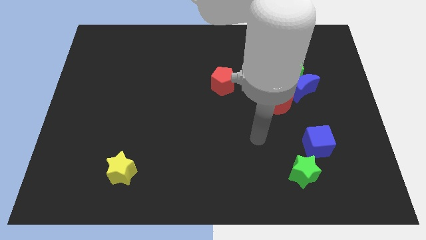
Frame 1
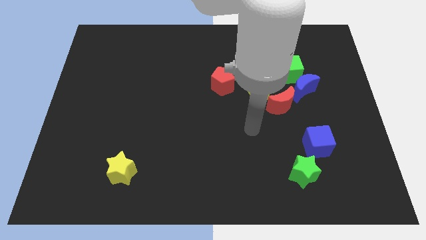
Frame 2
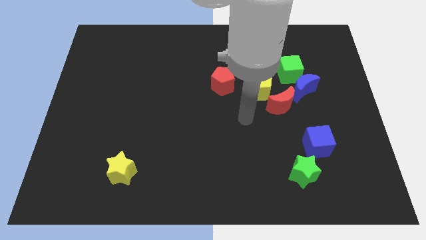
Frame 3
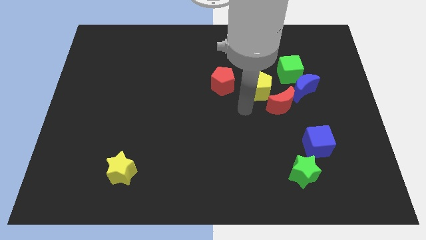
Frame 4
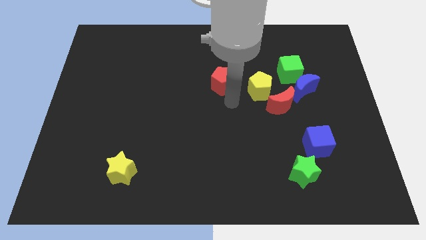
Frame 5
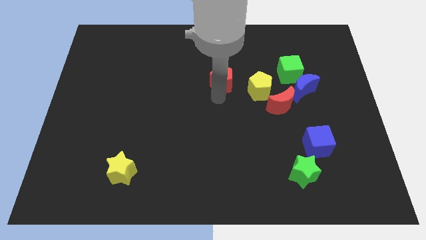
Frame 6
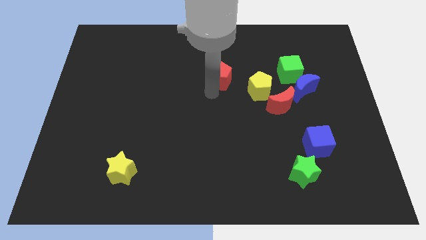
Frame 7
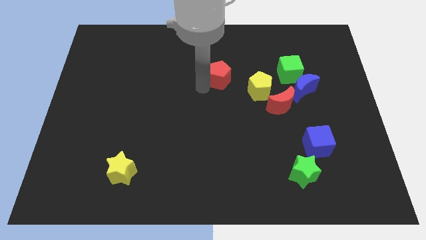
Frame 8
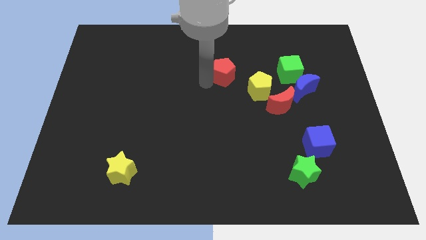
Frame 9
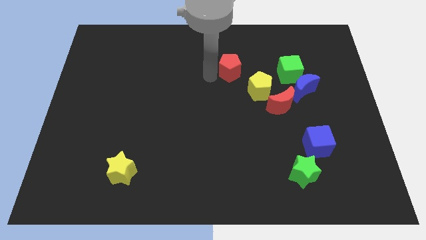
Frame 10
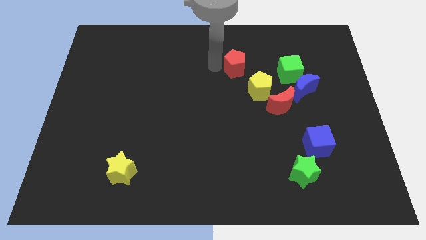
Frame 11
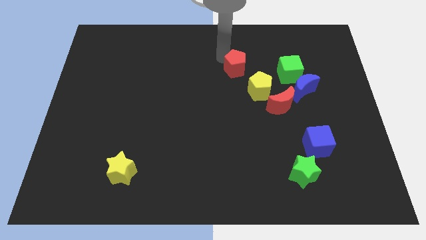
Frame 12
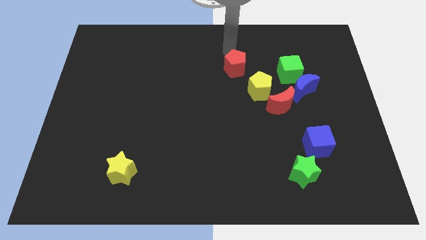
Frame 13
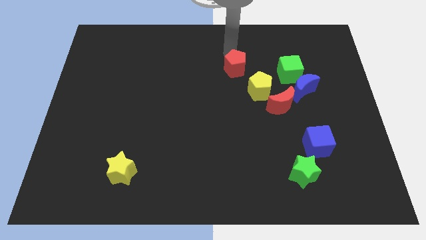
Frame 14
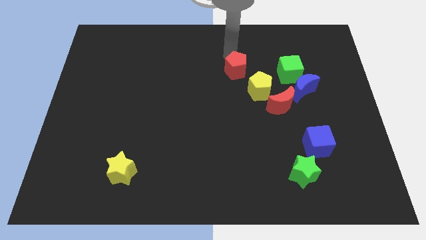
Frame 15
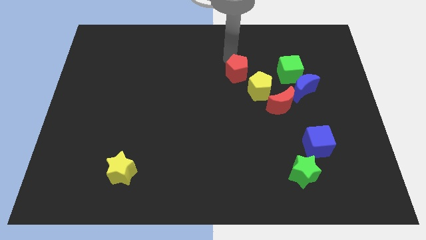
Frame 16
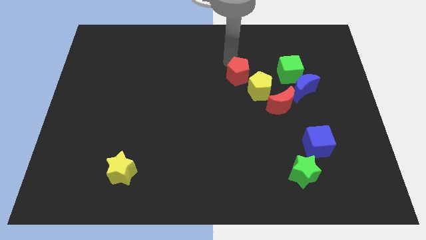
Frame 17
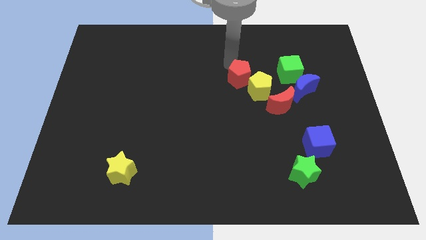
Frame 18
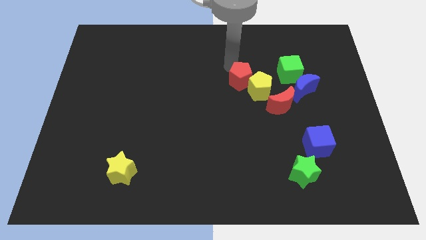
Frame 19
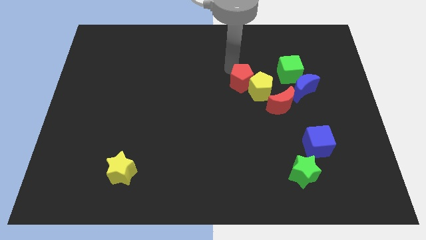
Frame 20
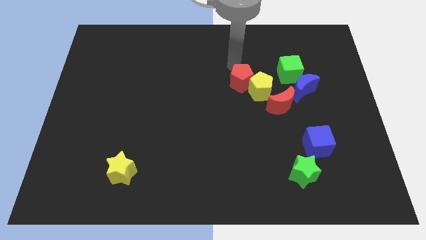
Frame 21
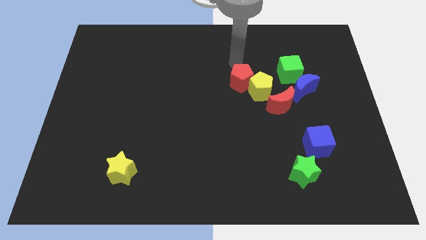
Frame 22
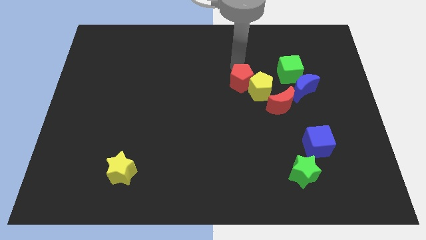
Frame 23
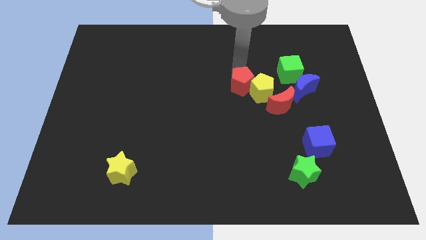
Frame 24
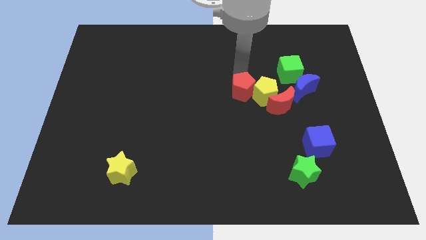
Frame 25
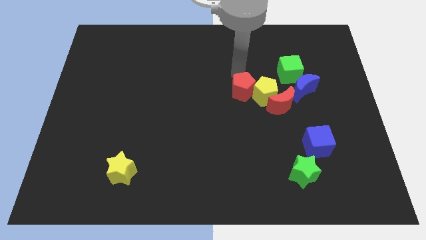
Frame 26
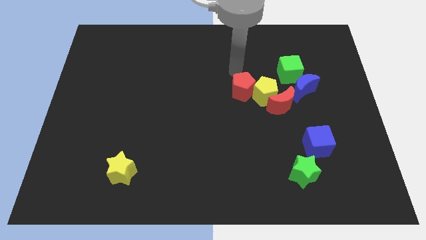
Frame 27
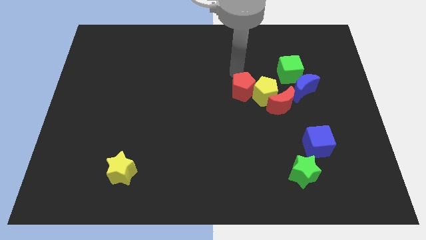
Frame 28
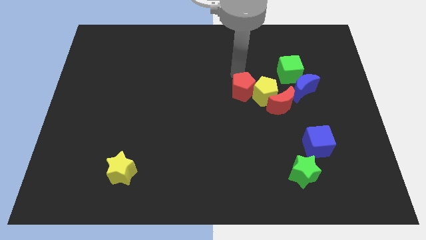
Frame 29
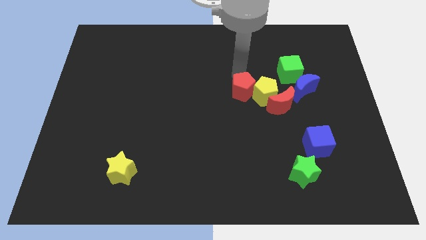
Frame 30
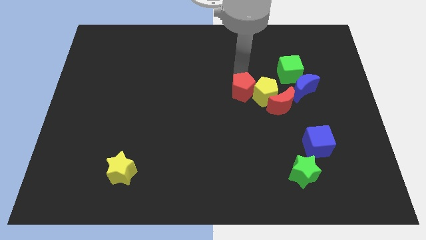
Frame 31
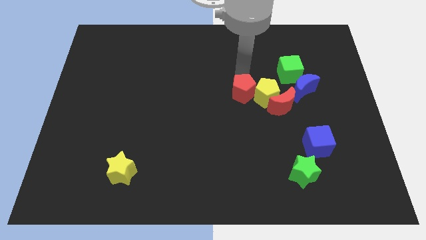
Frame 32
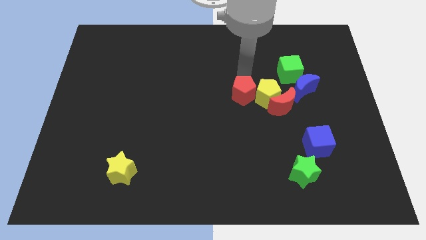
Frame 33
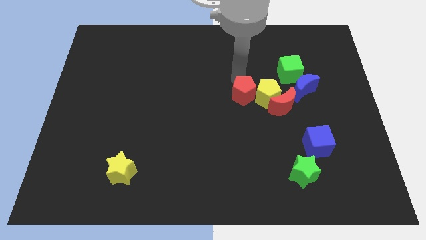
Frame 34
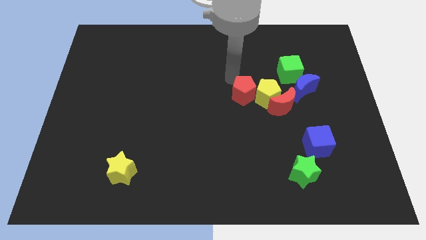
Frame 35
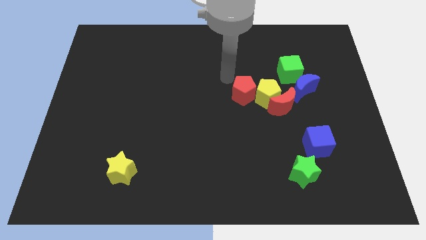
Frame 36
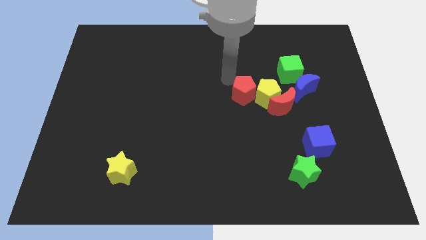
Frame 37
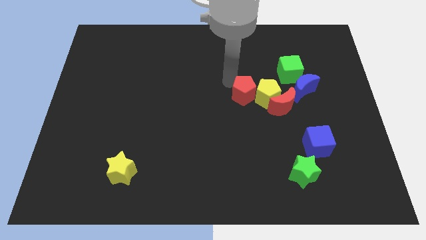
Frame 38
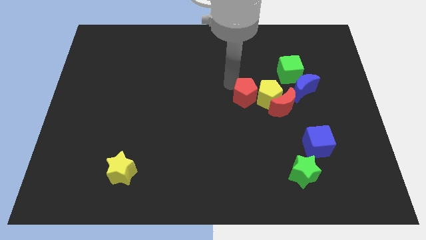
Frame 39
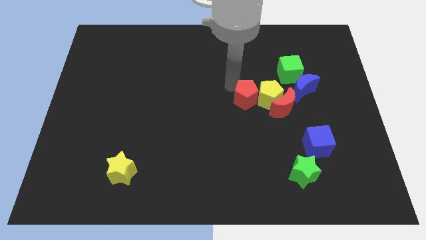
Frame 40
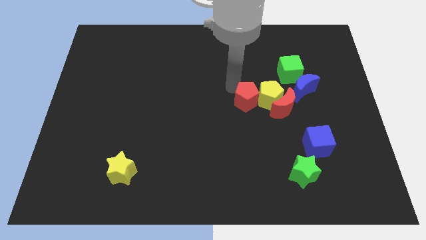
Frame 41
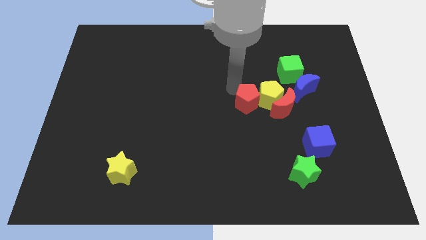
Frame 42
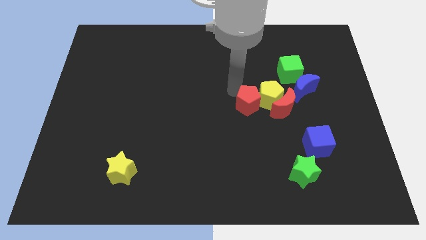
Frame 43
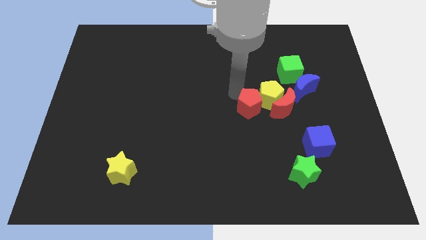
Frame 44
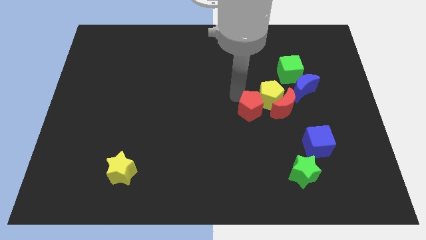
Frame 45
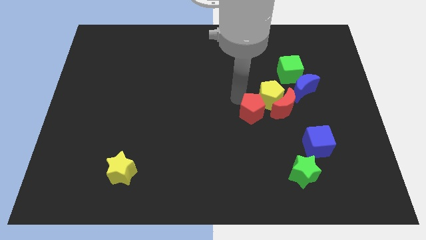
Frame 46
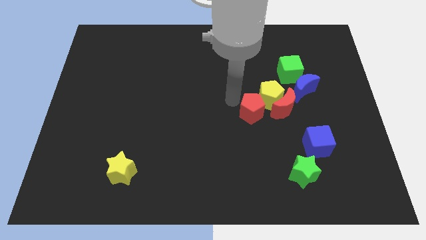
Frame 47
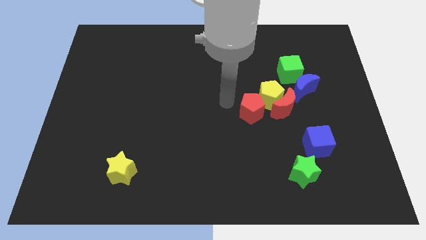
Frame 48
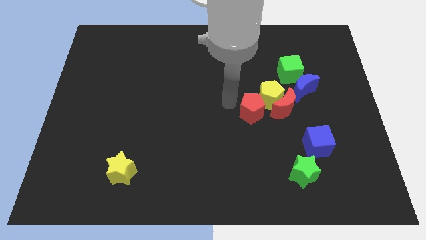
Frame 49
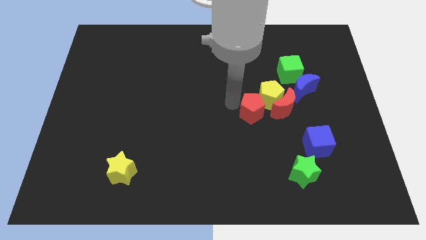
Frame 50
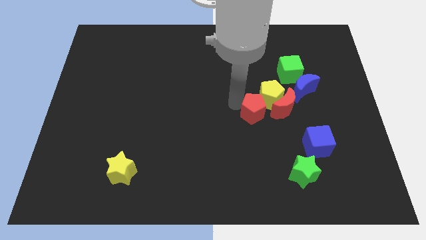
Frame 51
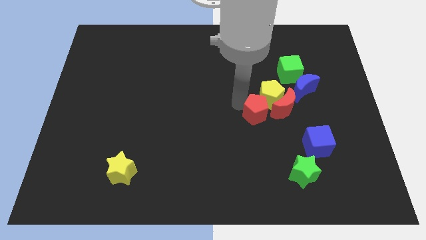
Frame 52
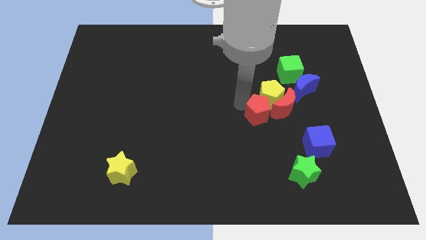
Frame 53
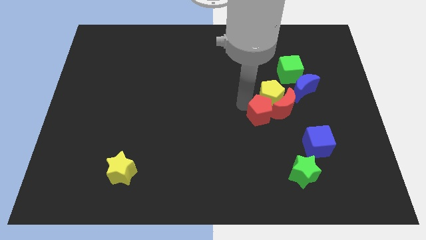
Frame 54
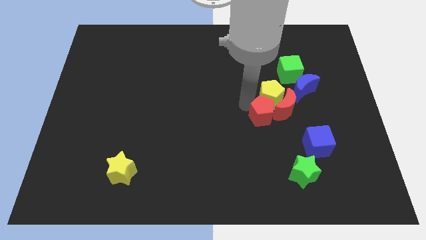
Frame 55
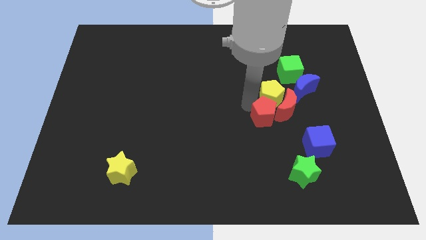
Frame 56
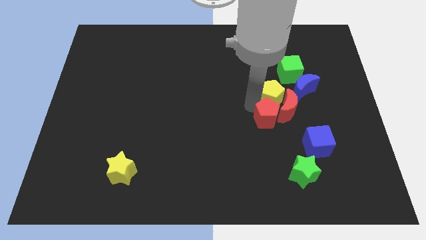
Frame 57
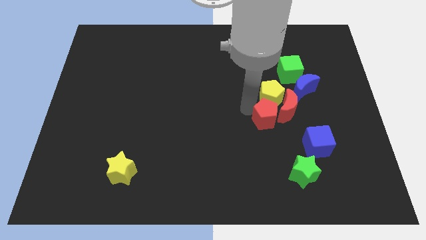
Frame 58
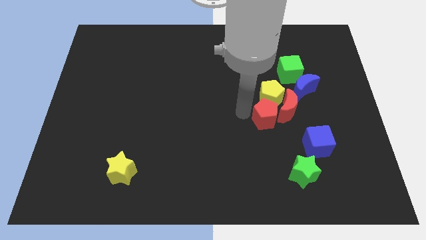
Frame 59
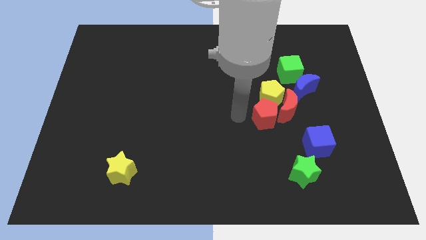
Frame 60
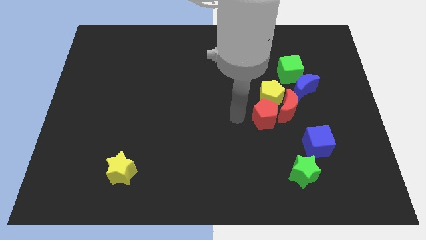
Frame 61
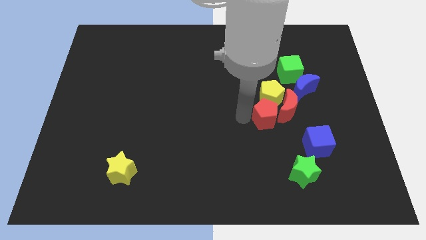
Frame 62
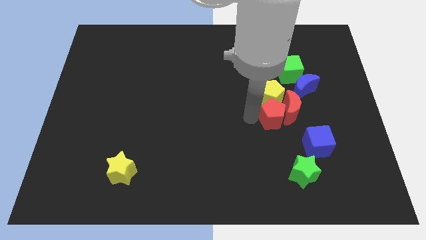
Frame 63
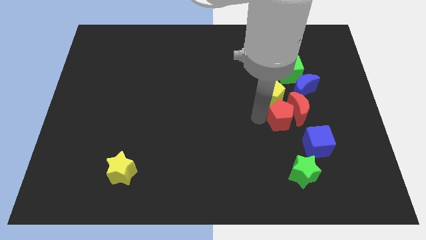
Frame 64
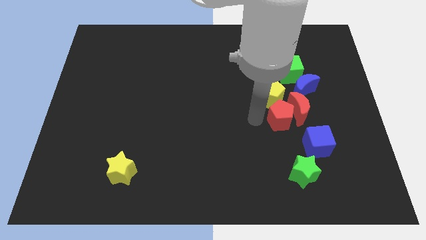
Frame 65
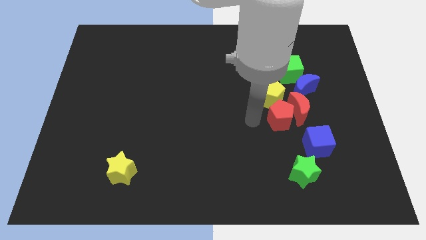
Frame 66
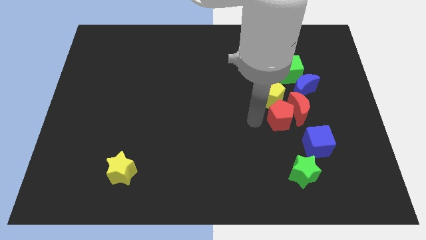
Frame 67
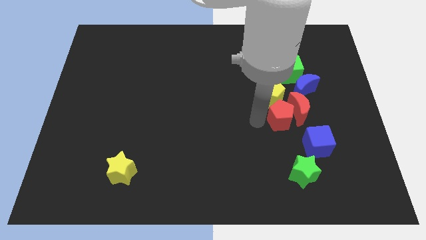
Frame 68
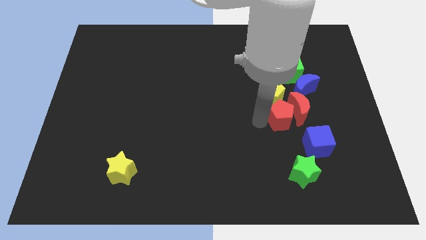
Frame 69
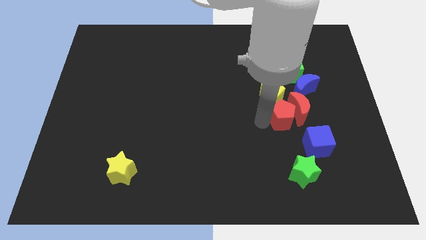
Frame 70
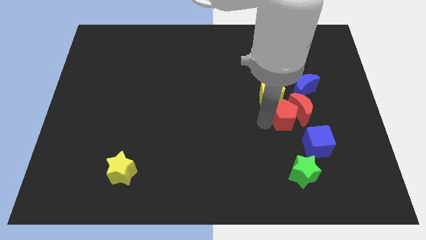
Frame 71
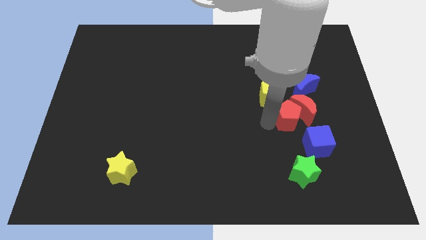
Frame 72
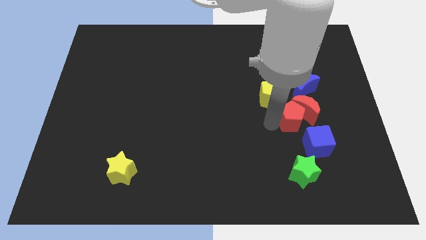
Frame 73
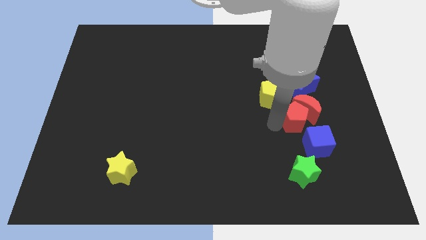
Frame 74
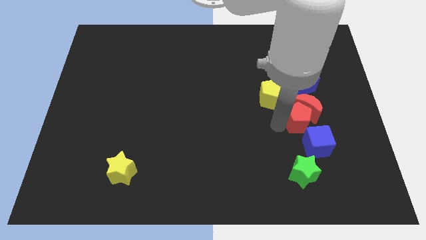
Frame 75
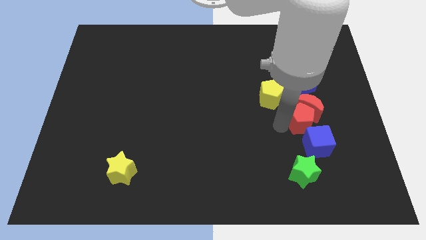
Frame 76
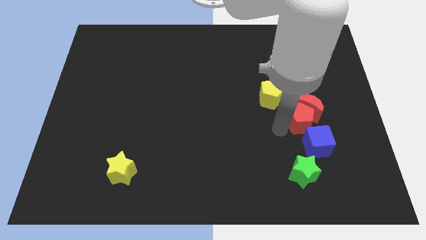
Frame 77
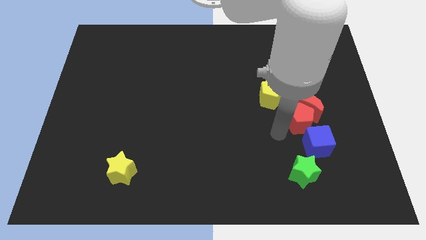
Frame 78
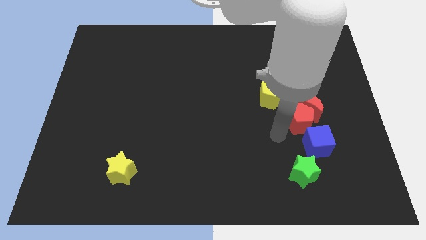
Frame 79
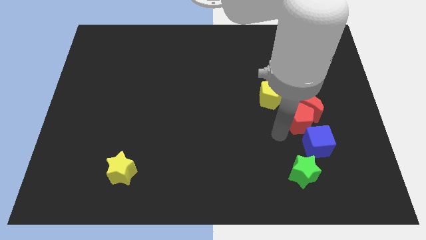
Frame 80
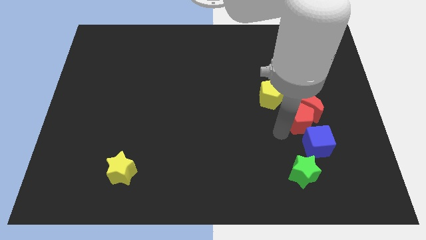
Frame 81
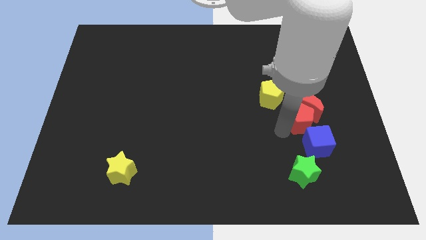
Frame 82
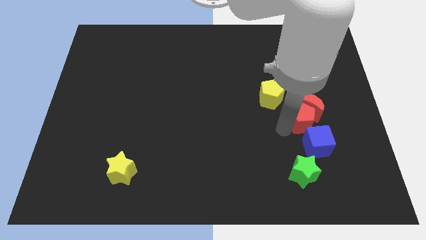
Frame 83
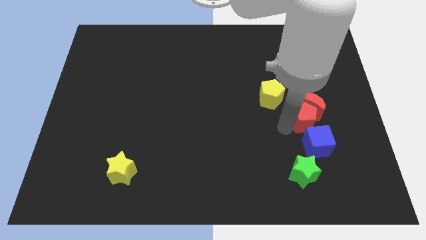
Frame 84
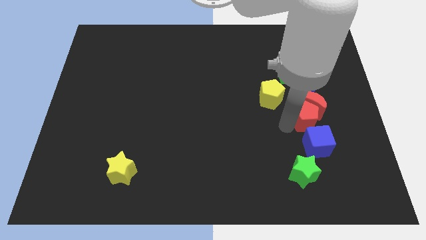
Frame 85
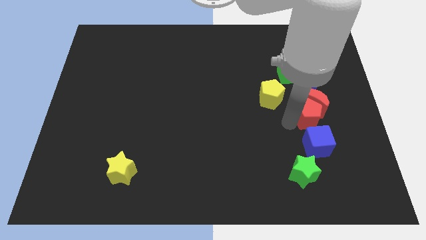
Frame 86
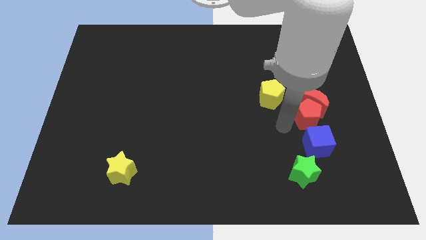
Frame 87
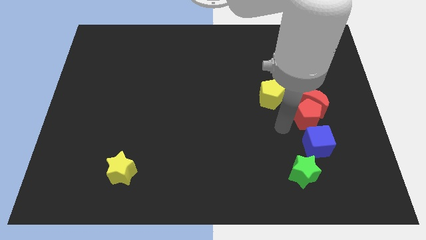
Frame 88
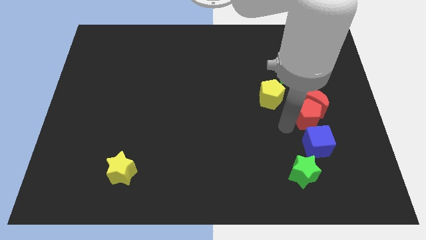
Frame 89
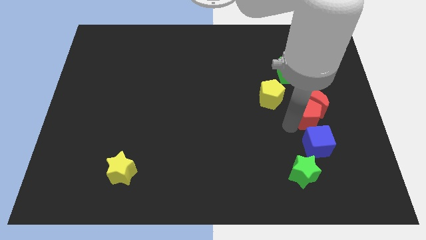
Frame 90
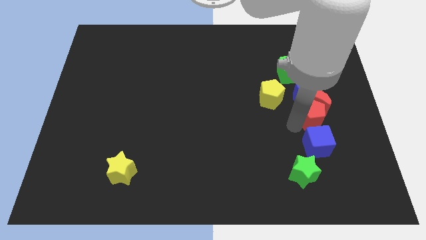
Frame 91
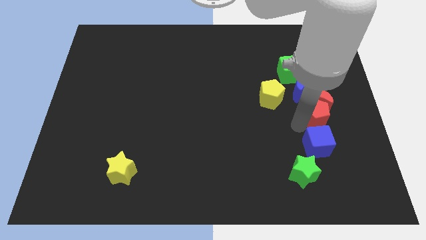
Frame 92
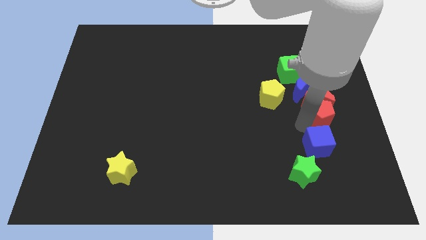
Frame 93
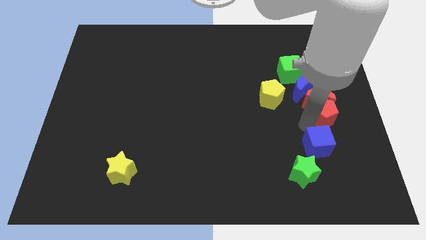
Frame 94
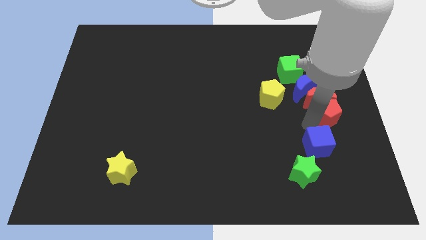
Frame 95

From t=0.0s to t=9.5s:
move the red pentagon to the right side
